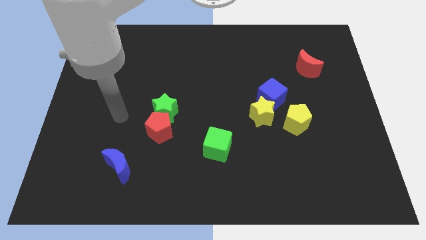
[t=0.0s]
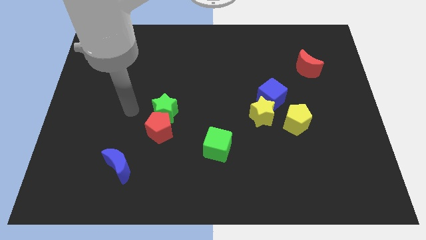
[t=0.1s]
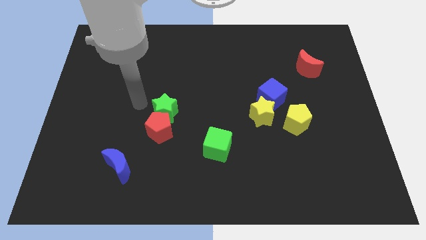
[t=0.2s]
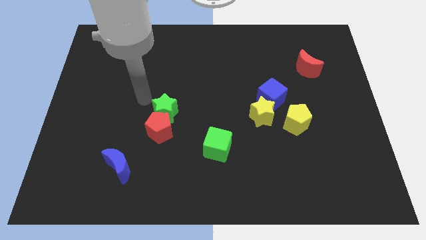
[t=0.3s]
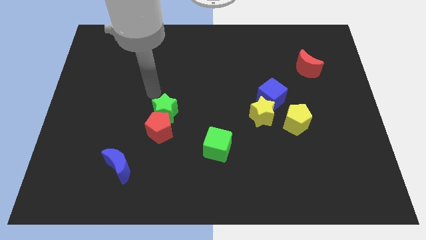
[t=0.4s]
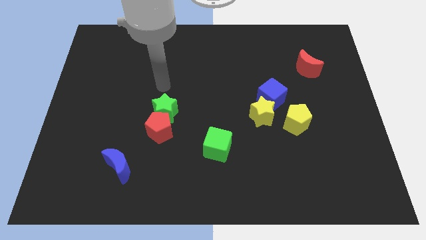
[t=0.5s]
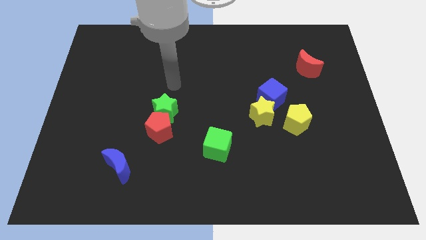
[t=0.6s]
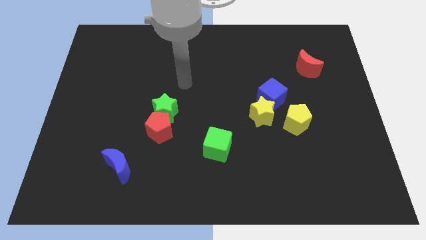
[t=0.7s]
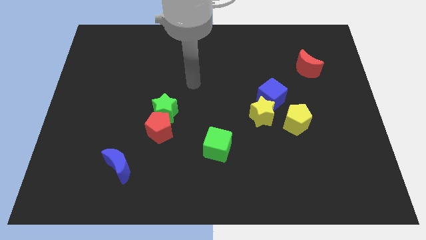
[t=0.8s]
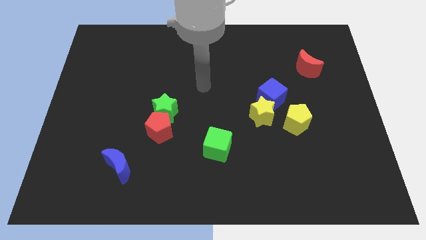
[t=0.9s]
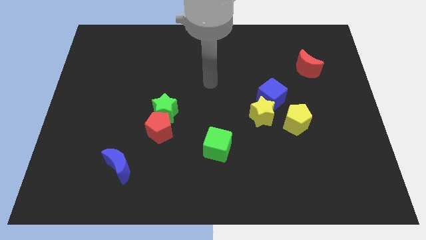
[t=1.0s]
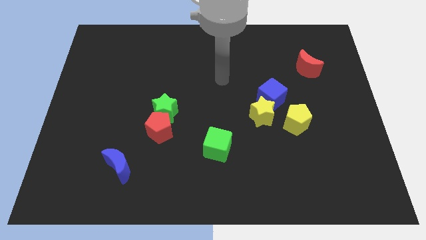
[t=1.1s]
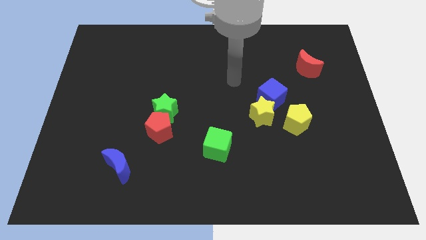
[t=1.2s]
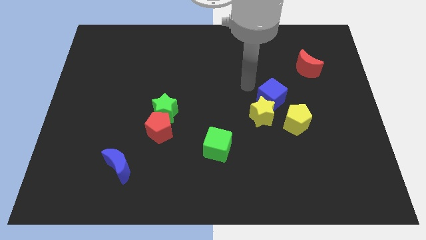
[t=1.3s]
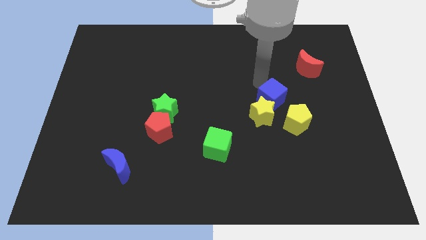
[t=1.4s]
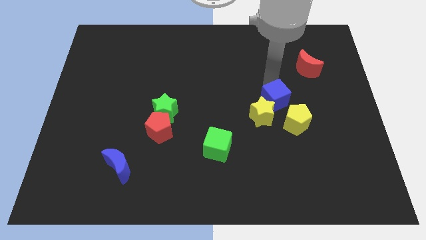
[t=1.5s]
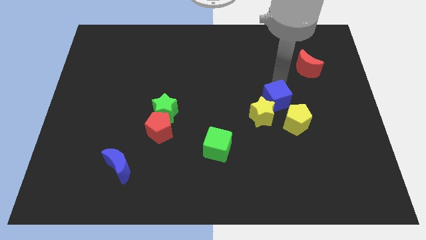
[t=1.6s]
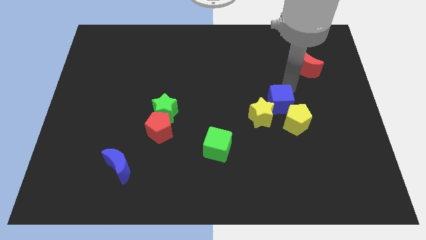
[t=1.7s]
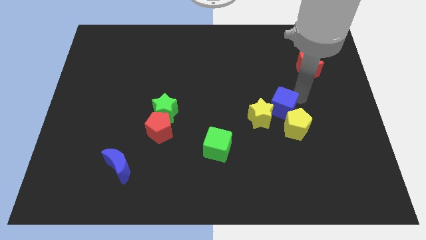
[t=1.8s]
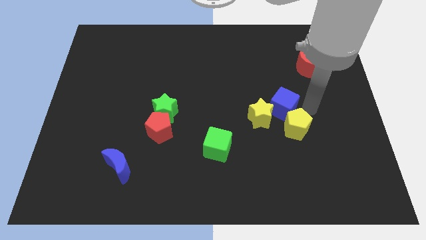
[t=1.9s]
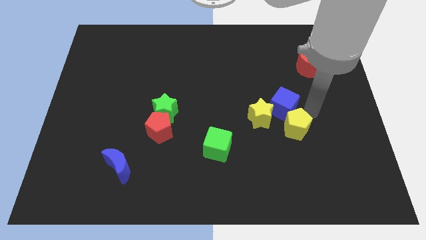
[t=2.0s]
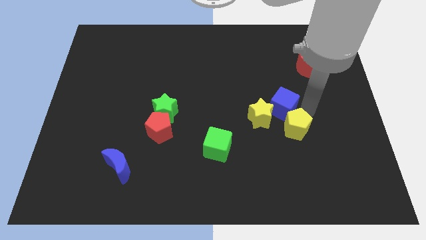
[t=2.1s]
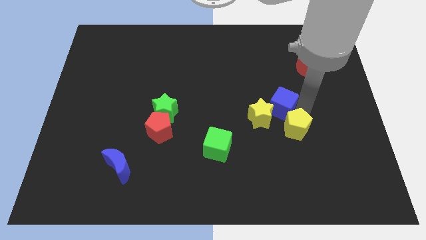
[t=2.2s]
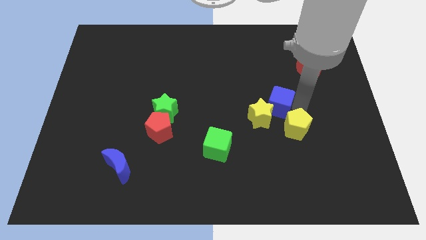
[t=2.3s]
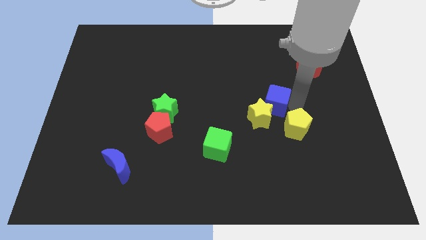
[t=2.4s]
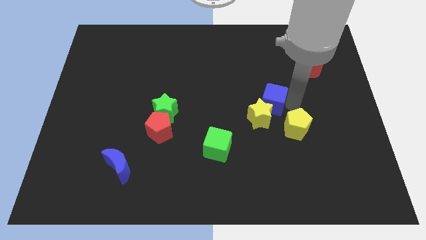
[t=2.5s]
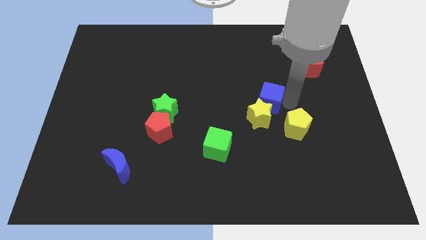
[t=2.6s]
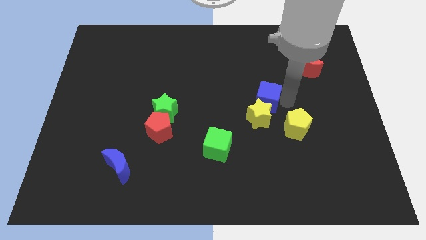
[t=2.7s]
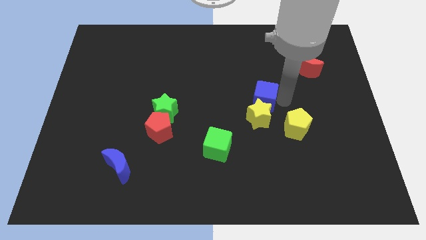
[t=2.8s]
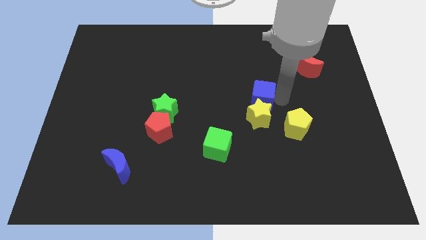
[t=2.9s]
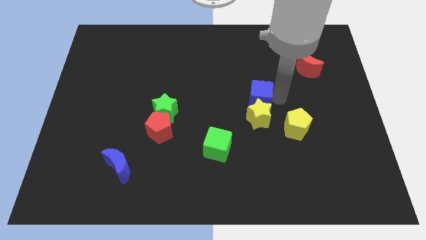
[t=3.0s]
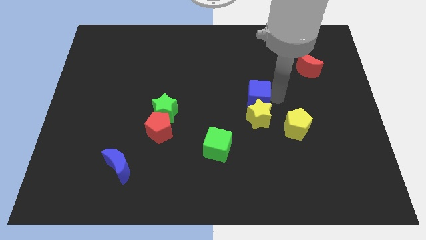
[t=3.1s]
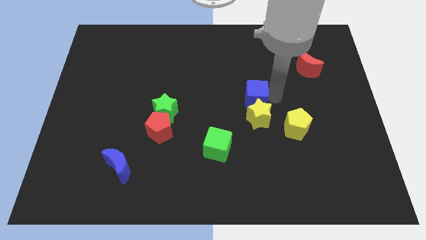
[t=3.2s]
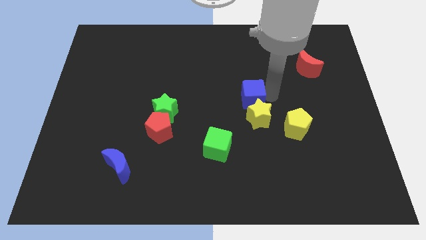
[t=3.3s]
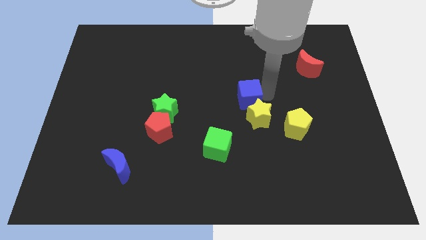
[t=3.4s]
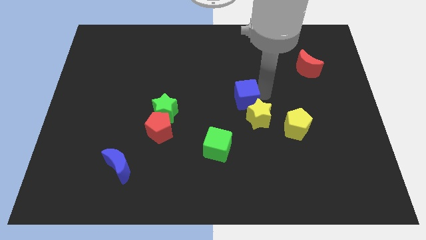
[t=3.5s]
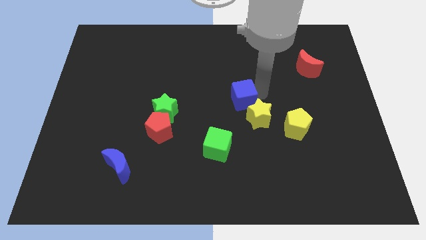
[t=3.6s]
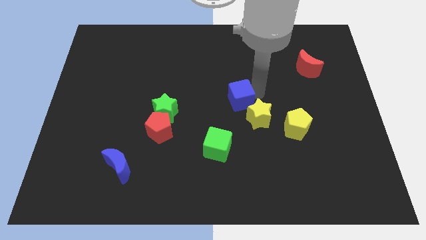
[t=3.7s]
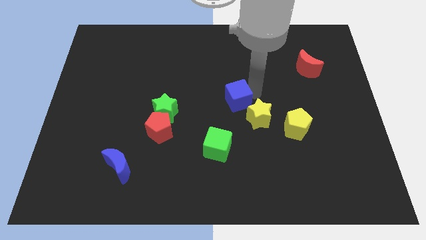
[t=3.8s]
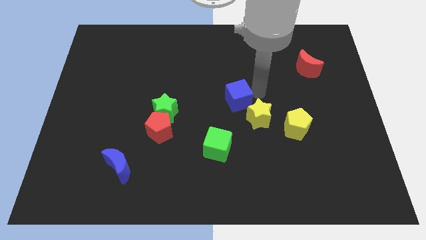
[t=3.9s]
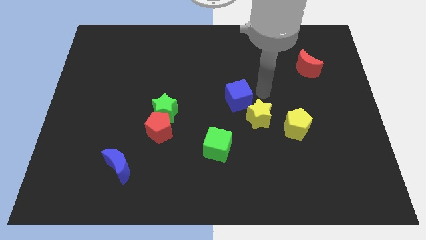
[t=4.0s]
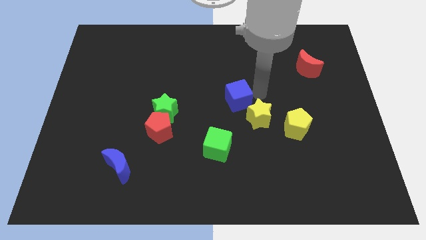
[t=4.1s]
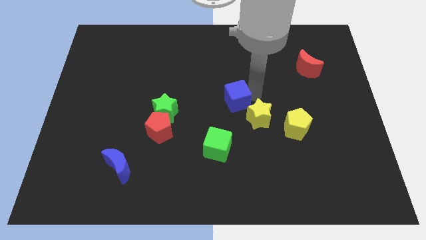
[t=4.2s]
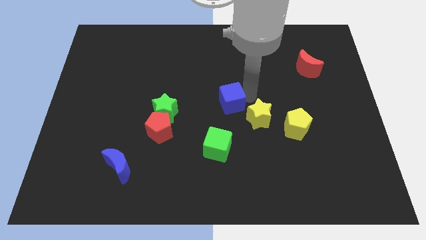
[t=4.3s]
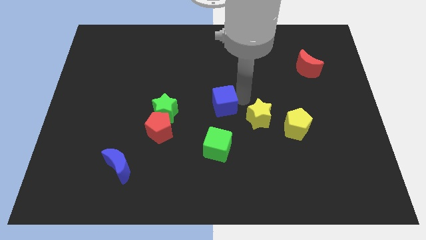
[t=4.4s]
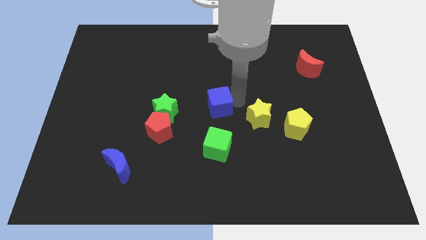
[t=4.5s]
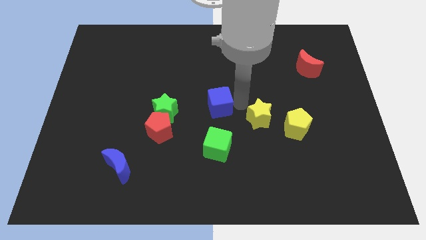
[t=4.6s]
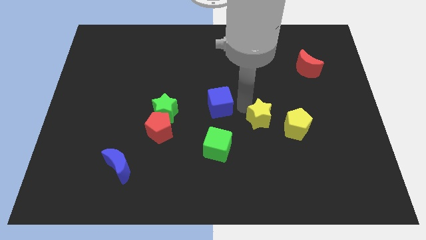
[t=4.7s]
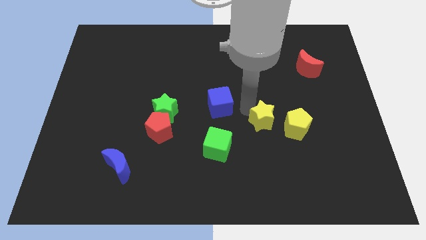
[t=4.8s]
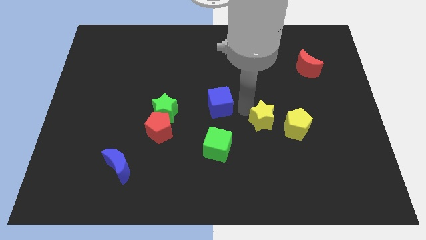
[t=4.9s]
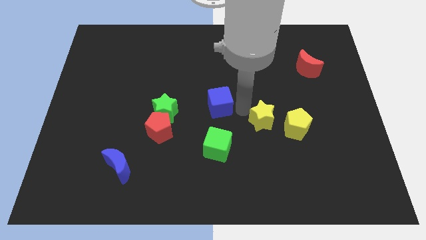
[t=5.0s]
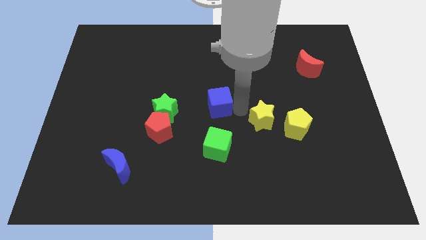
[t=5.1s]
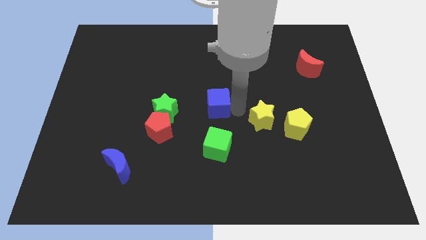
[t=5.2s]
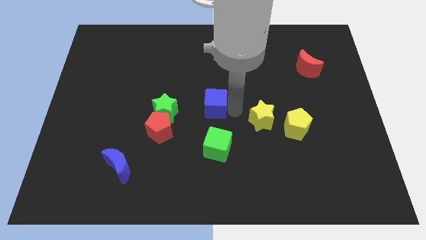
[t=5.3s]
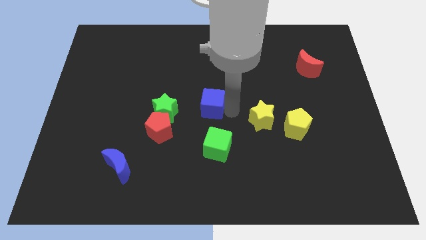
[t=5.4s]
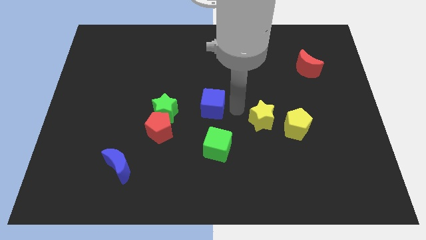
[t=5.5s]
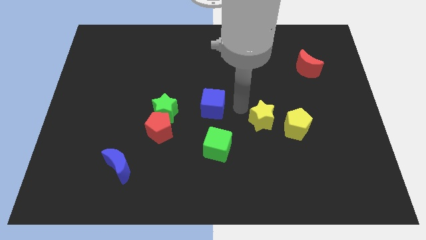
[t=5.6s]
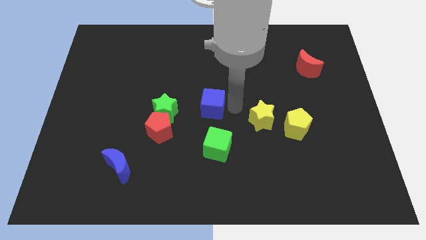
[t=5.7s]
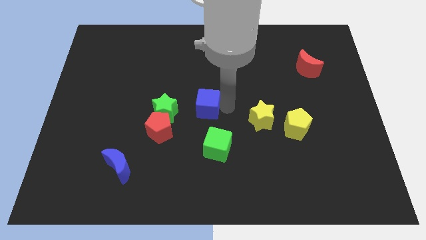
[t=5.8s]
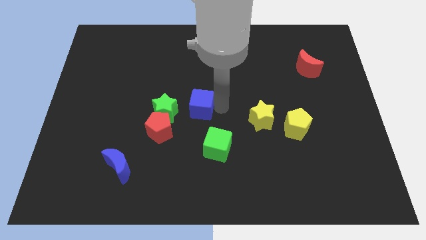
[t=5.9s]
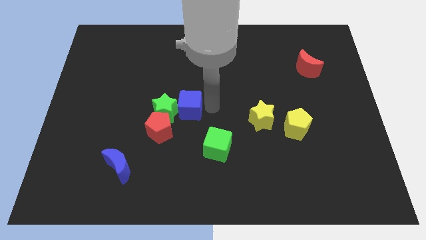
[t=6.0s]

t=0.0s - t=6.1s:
put the blue cube next to the green star

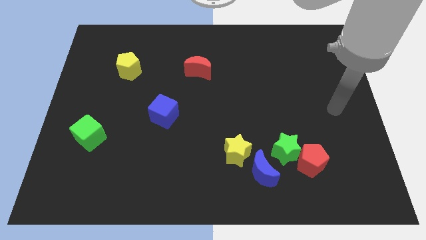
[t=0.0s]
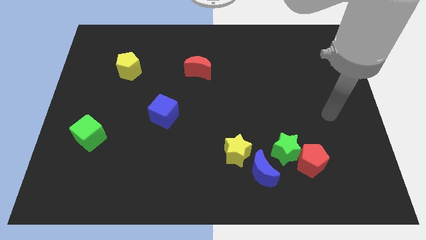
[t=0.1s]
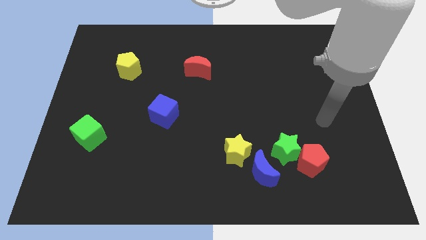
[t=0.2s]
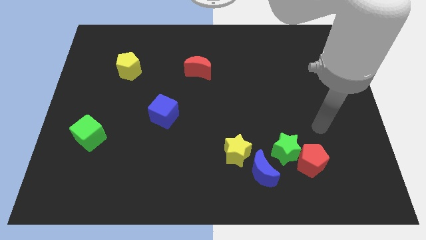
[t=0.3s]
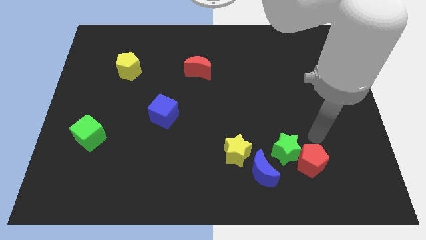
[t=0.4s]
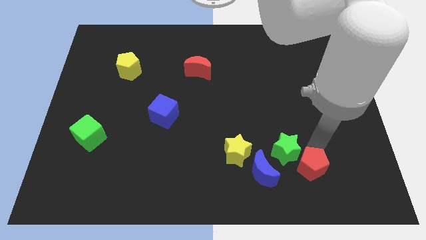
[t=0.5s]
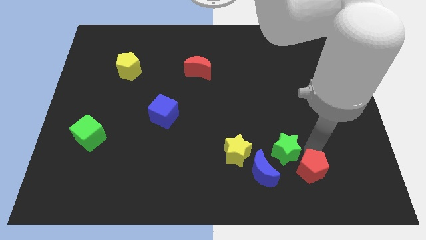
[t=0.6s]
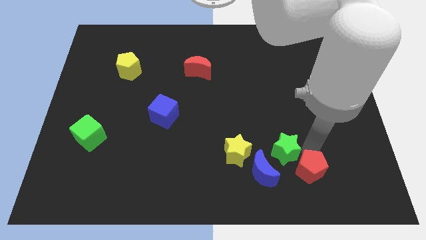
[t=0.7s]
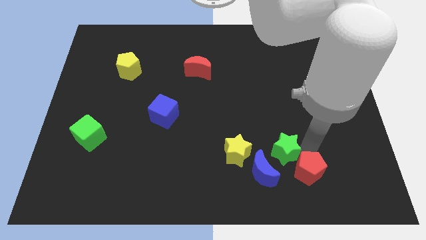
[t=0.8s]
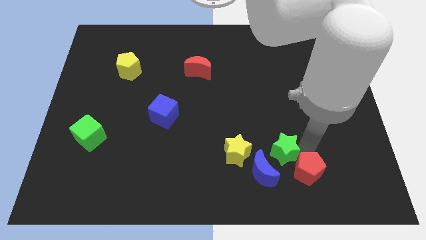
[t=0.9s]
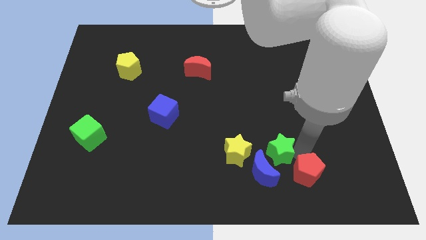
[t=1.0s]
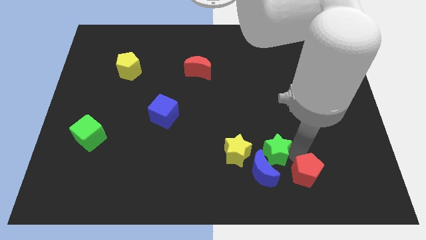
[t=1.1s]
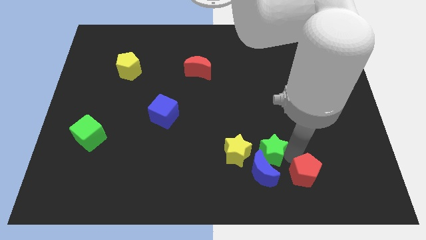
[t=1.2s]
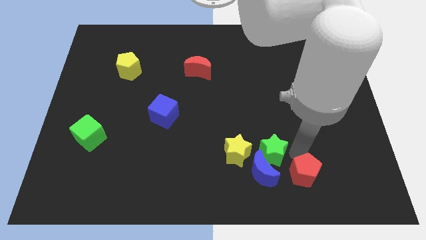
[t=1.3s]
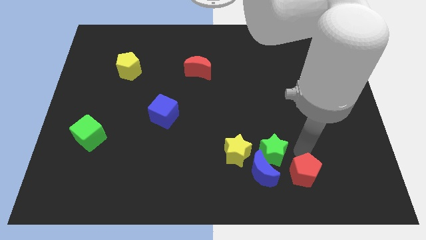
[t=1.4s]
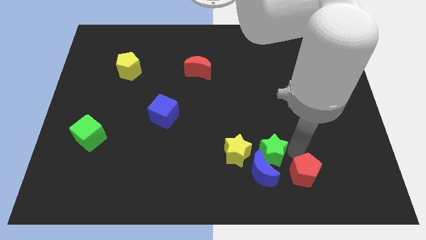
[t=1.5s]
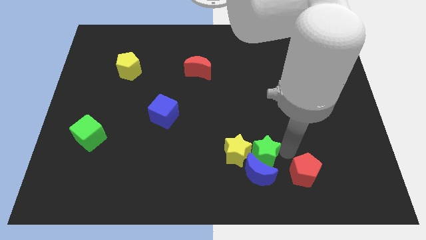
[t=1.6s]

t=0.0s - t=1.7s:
slide the green star towards the yellow star

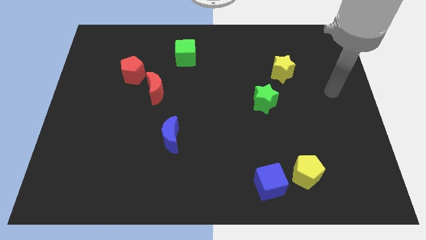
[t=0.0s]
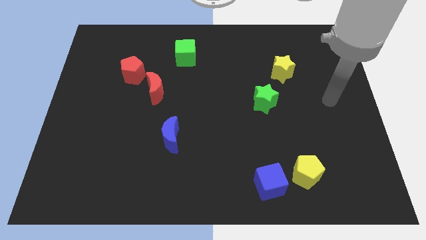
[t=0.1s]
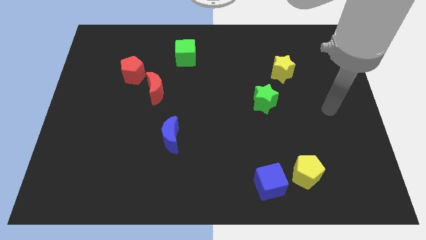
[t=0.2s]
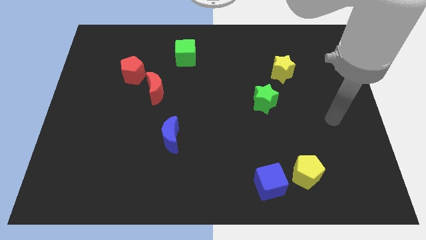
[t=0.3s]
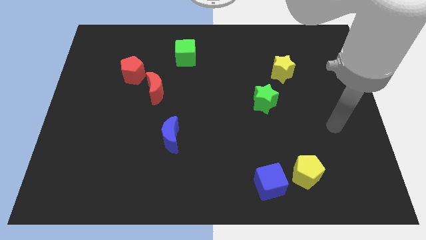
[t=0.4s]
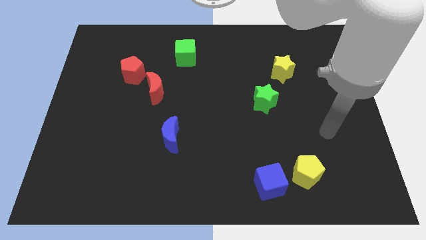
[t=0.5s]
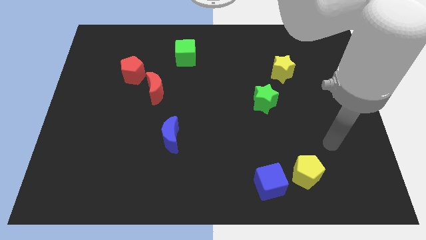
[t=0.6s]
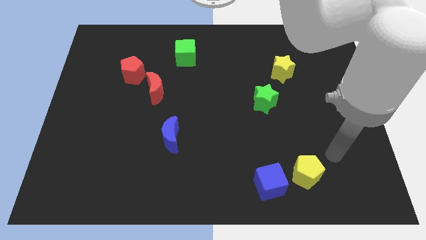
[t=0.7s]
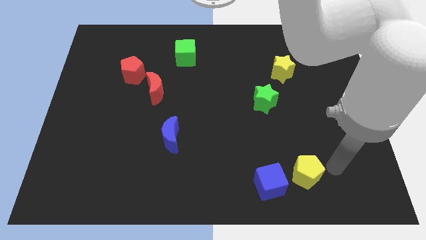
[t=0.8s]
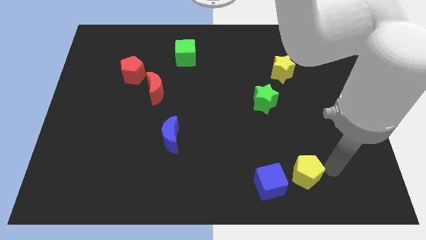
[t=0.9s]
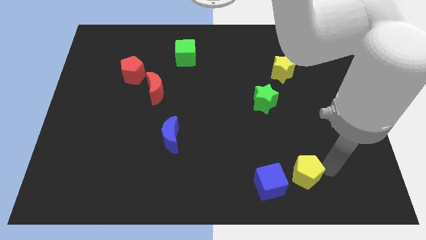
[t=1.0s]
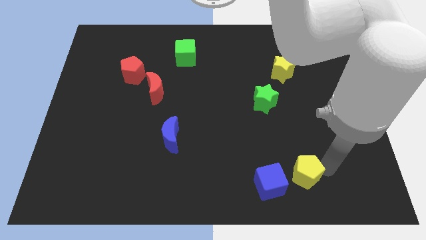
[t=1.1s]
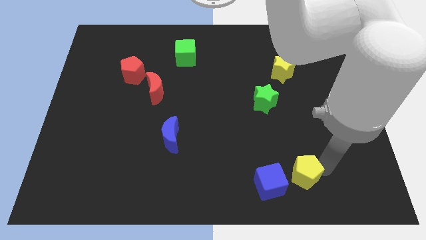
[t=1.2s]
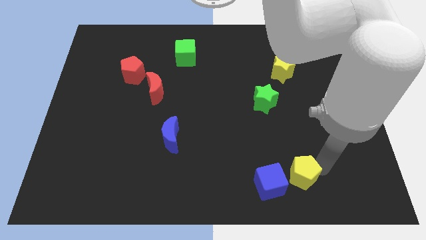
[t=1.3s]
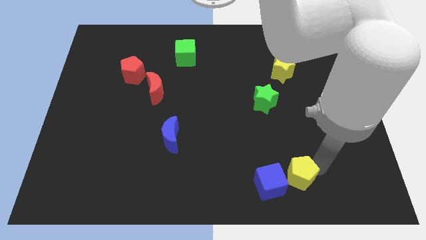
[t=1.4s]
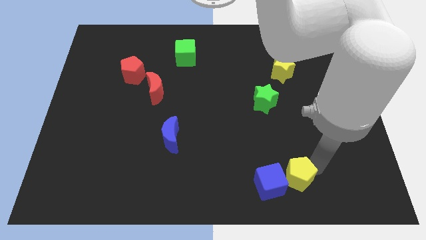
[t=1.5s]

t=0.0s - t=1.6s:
move the yellow pentagon towards the blue cube
